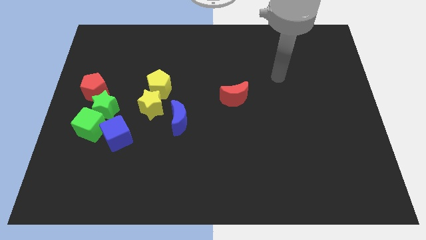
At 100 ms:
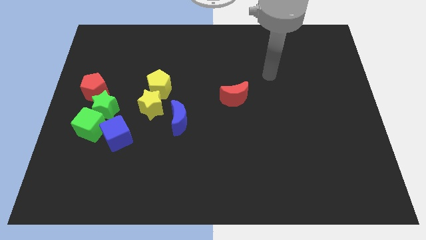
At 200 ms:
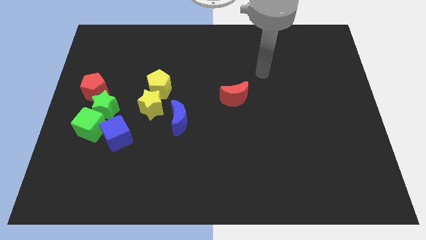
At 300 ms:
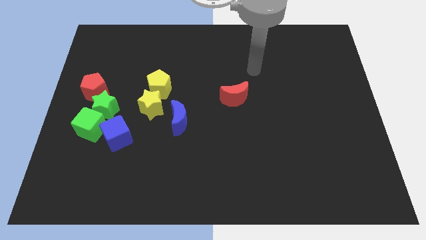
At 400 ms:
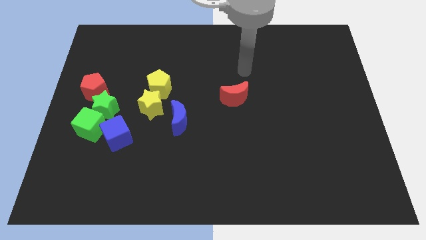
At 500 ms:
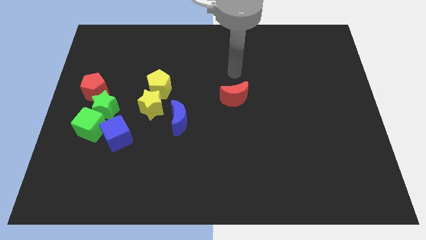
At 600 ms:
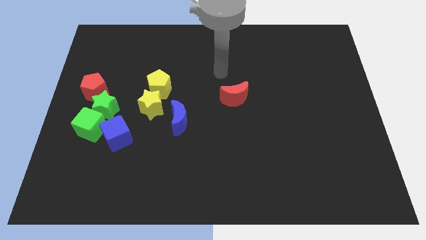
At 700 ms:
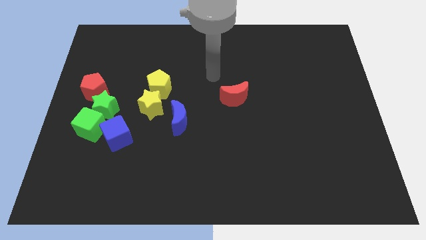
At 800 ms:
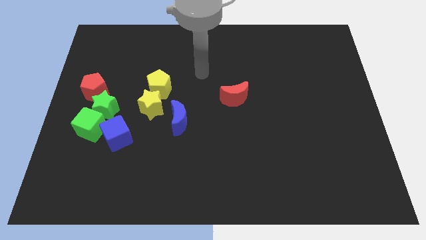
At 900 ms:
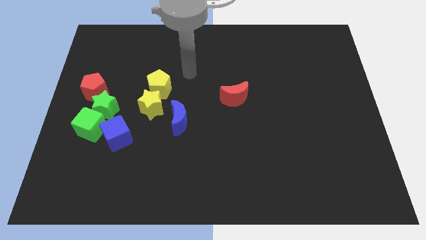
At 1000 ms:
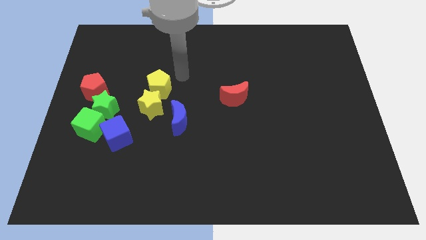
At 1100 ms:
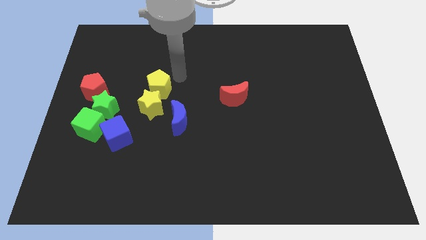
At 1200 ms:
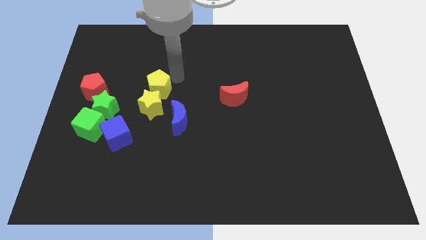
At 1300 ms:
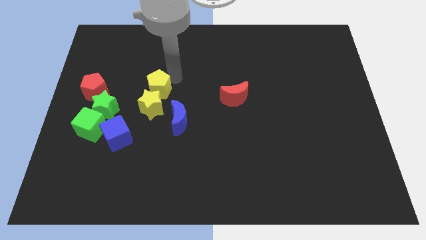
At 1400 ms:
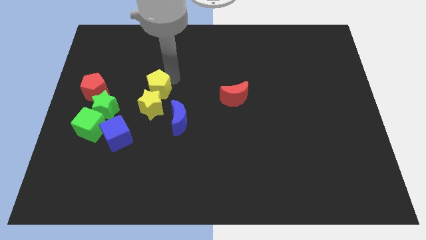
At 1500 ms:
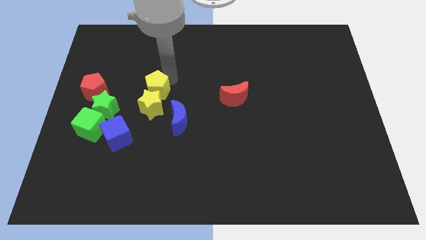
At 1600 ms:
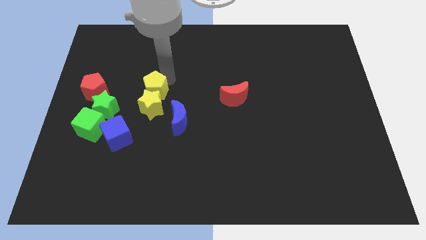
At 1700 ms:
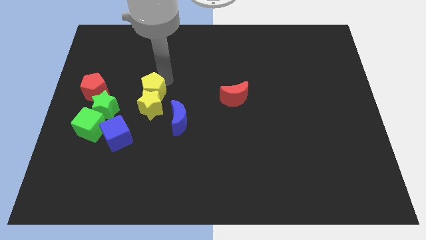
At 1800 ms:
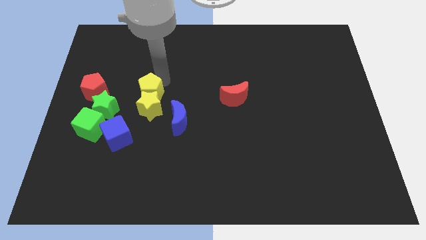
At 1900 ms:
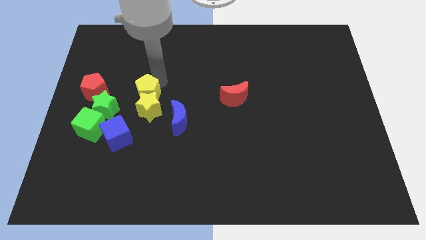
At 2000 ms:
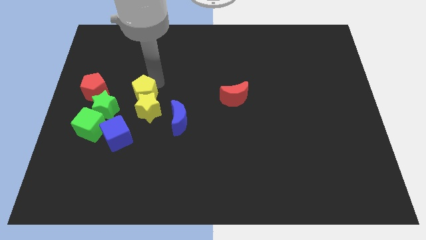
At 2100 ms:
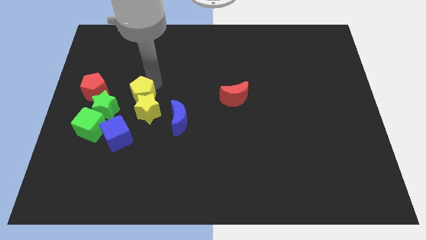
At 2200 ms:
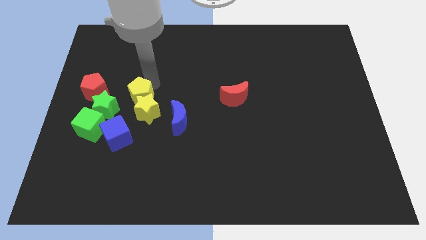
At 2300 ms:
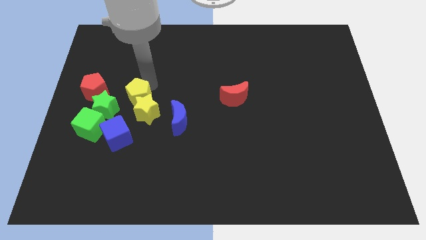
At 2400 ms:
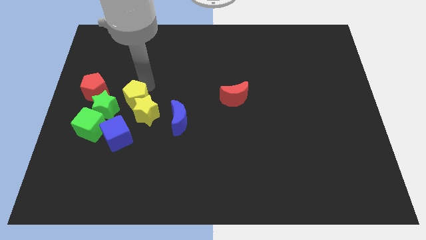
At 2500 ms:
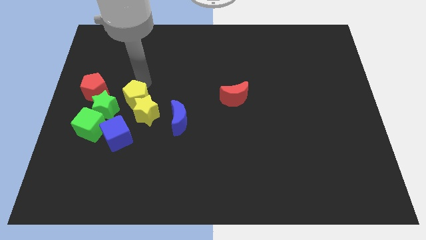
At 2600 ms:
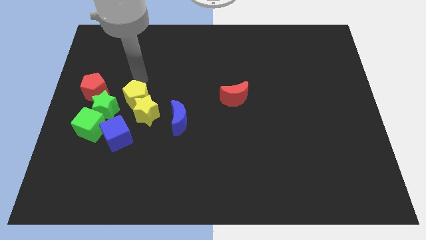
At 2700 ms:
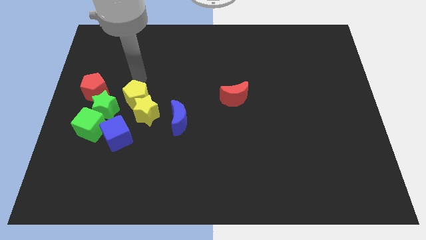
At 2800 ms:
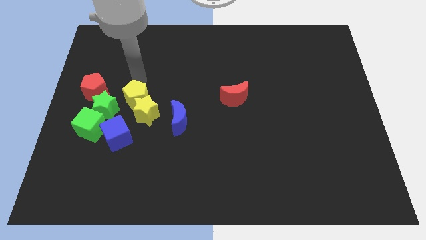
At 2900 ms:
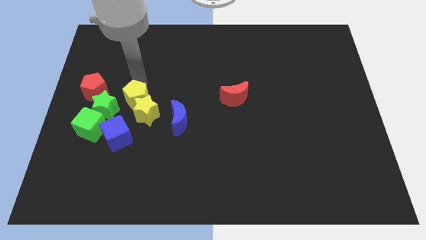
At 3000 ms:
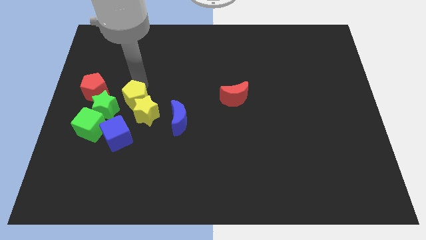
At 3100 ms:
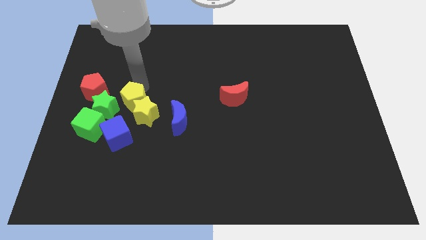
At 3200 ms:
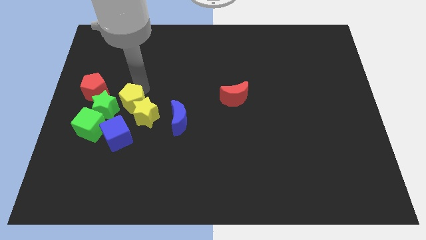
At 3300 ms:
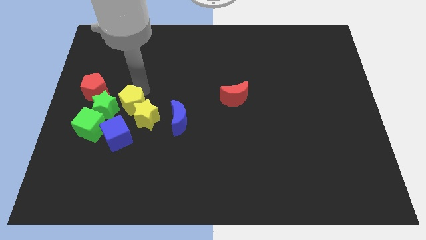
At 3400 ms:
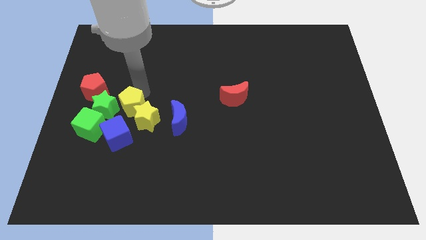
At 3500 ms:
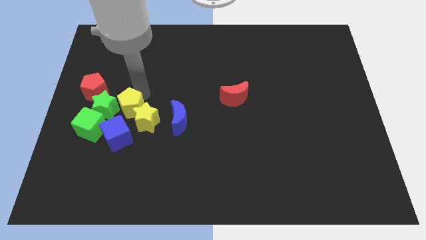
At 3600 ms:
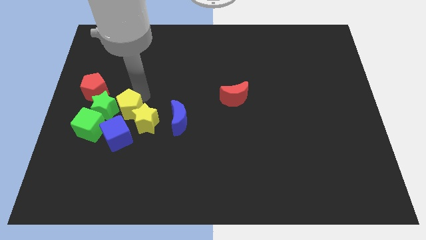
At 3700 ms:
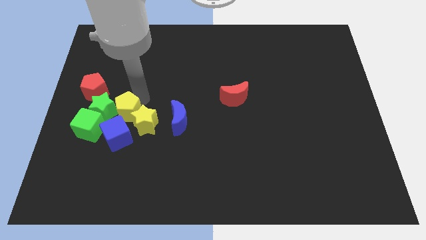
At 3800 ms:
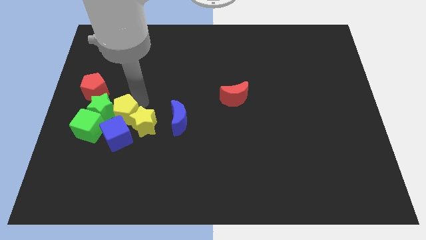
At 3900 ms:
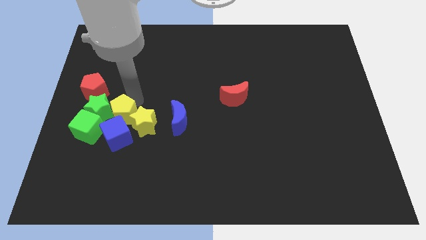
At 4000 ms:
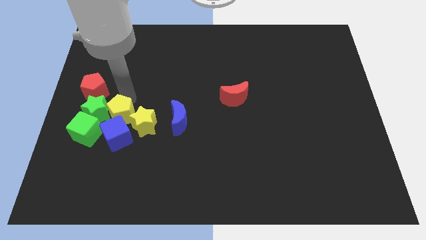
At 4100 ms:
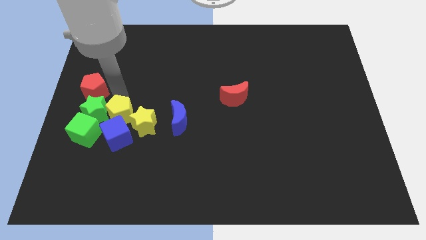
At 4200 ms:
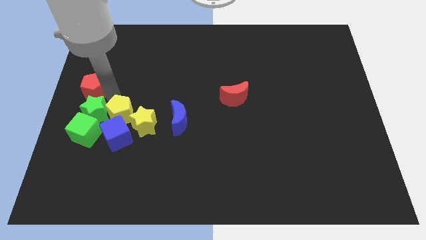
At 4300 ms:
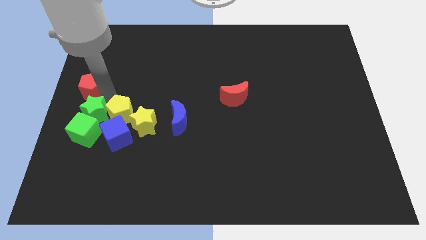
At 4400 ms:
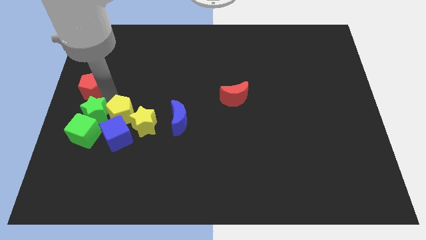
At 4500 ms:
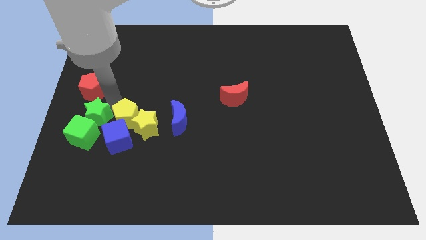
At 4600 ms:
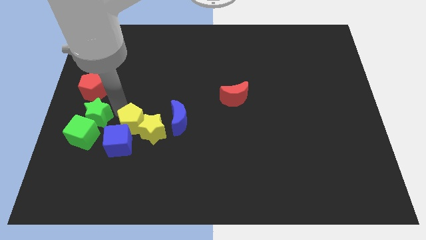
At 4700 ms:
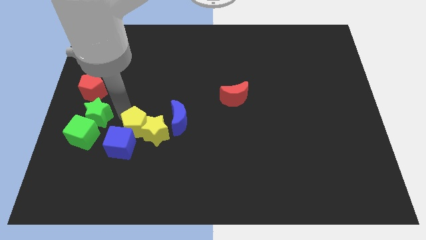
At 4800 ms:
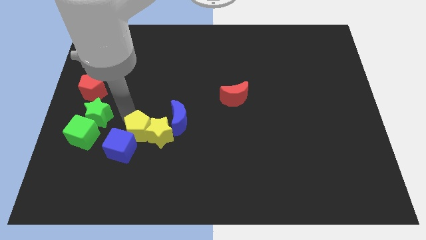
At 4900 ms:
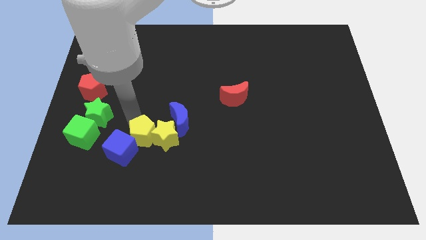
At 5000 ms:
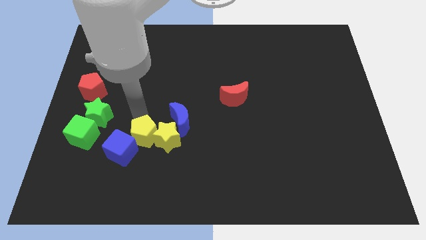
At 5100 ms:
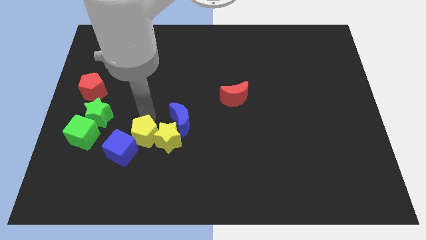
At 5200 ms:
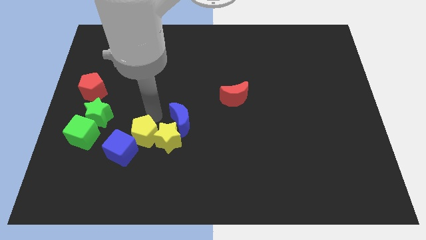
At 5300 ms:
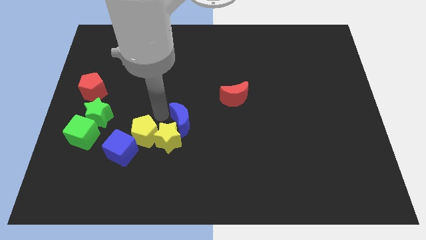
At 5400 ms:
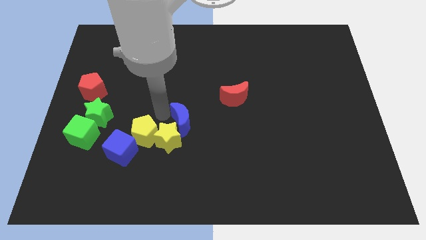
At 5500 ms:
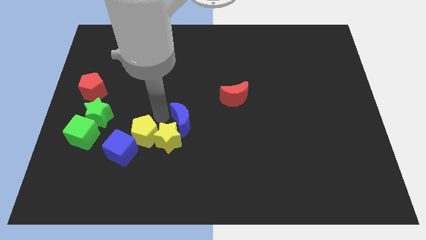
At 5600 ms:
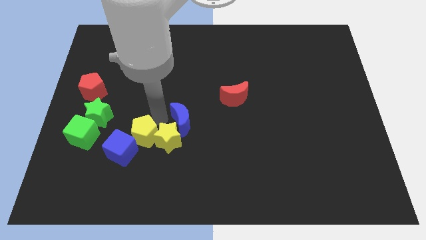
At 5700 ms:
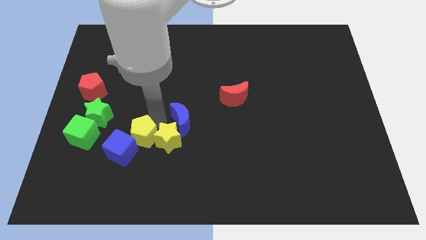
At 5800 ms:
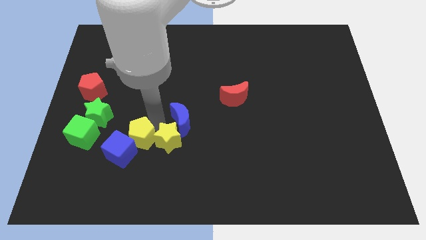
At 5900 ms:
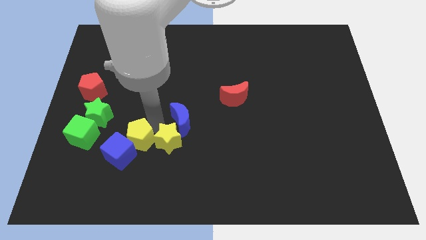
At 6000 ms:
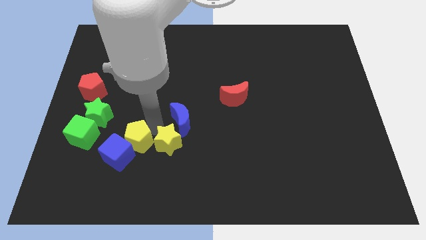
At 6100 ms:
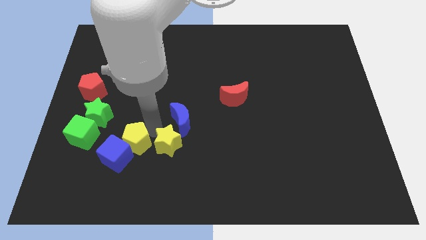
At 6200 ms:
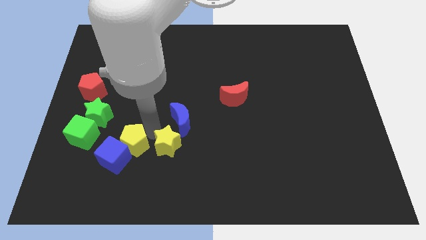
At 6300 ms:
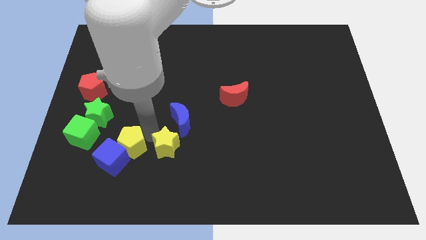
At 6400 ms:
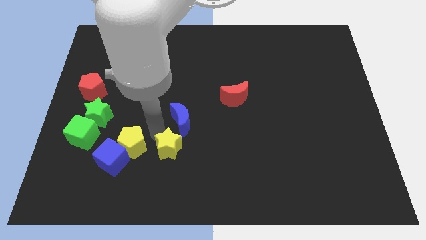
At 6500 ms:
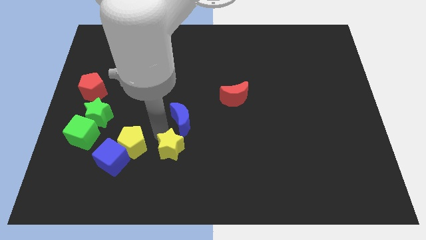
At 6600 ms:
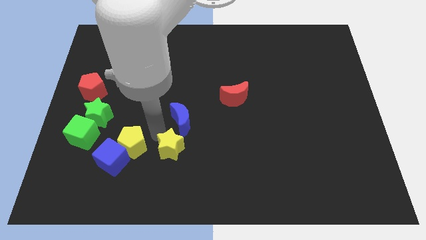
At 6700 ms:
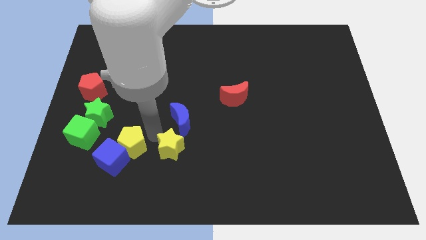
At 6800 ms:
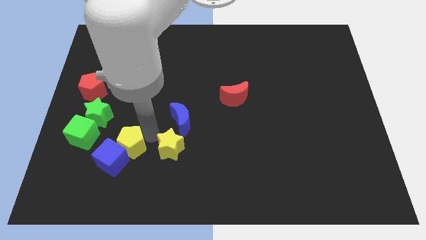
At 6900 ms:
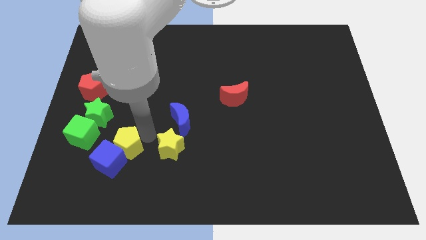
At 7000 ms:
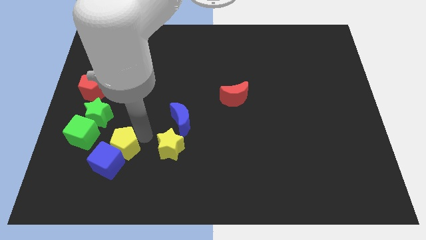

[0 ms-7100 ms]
move the yellow pentagon diagonally down and to the right of the green cube
